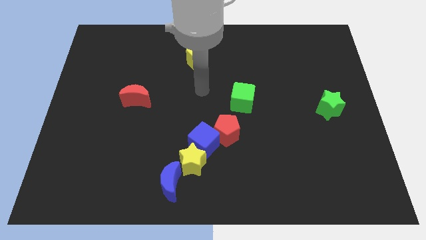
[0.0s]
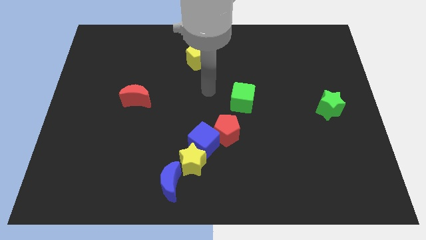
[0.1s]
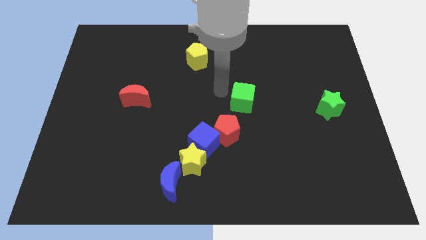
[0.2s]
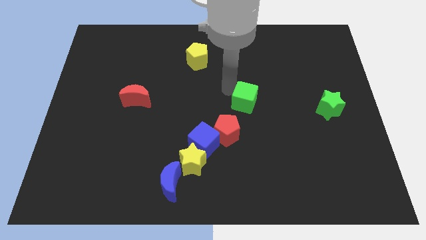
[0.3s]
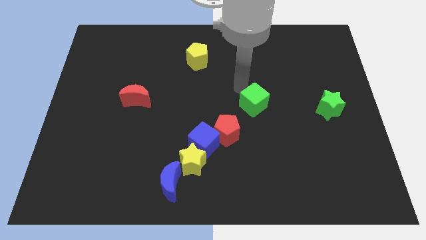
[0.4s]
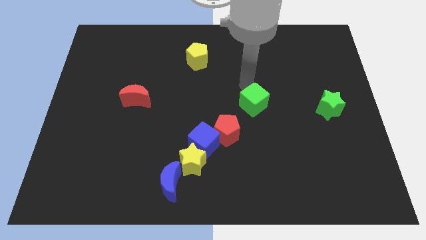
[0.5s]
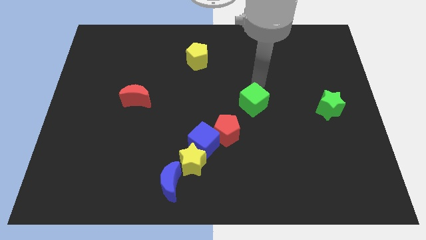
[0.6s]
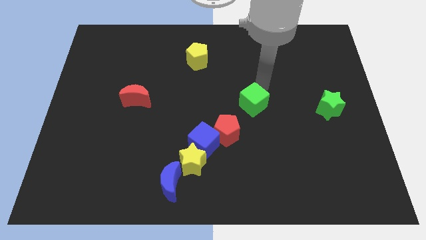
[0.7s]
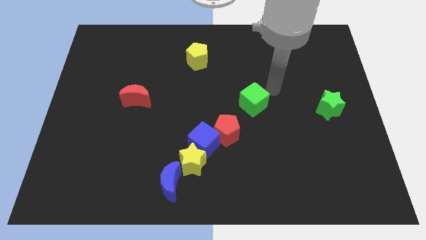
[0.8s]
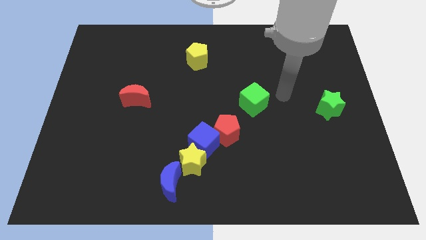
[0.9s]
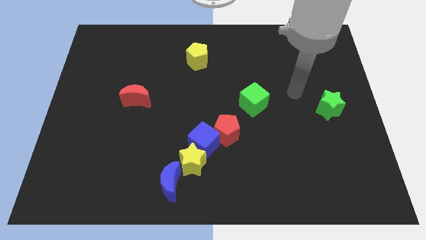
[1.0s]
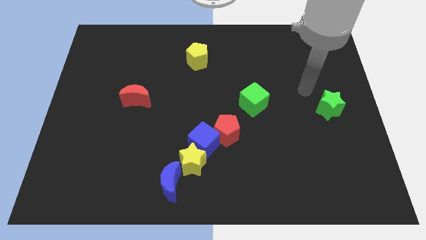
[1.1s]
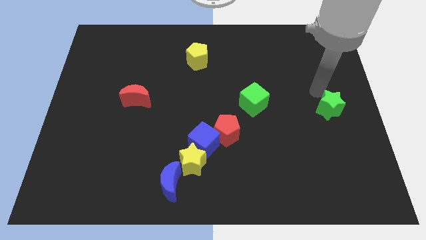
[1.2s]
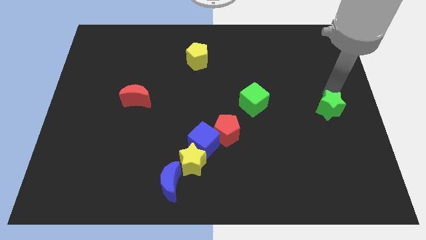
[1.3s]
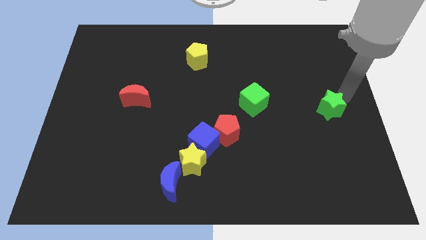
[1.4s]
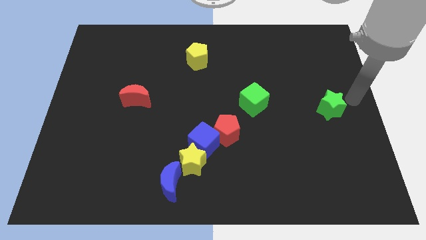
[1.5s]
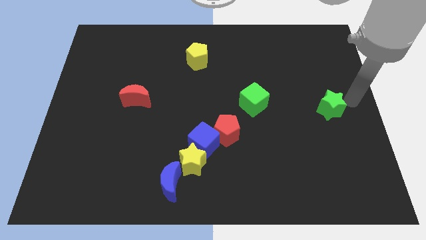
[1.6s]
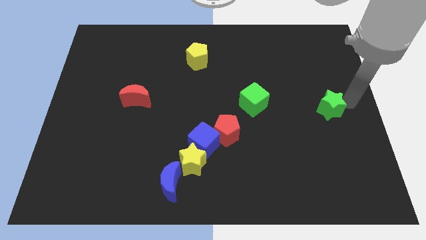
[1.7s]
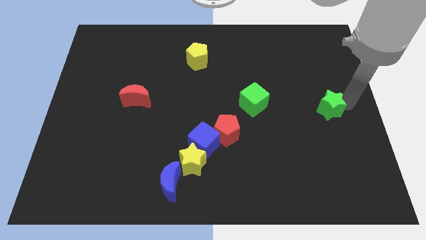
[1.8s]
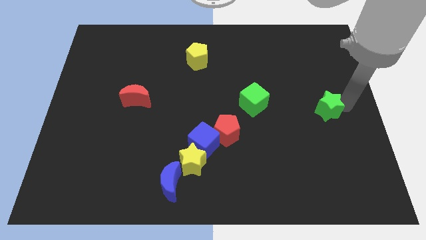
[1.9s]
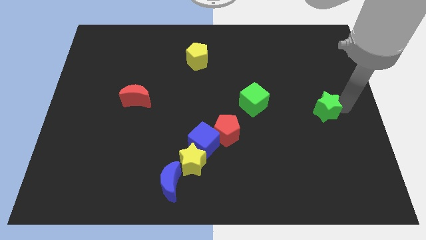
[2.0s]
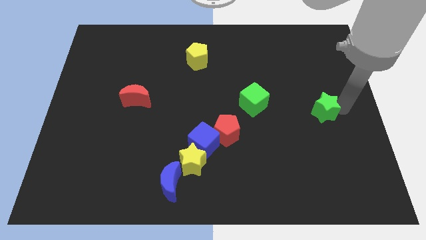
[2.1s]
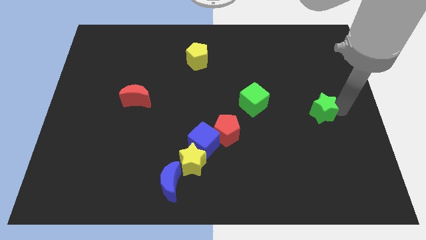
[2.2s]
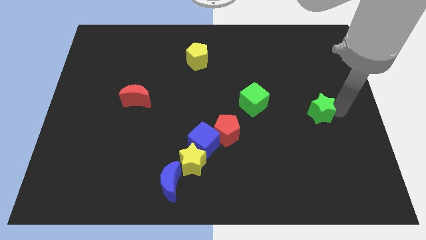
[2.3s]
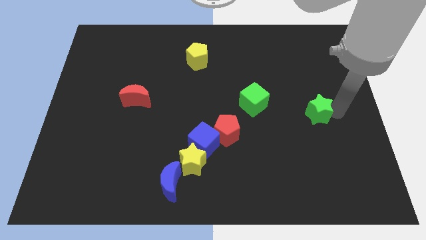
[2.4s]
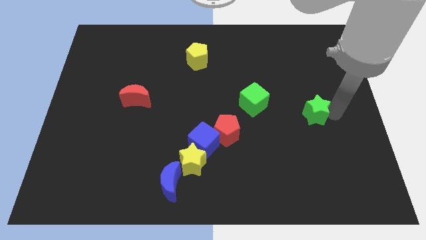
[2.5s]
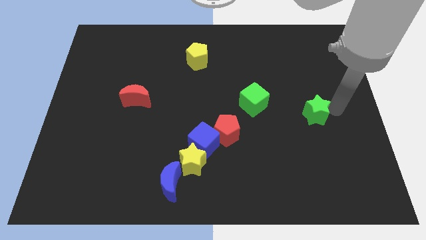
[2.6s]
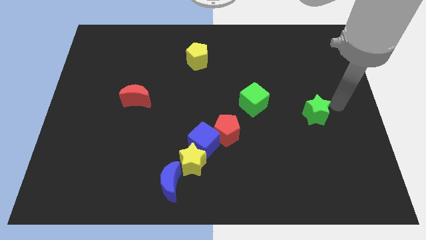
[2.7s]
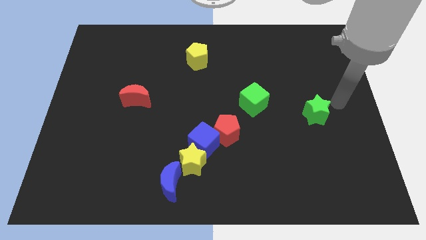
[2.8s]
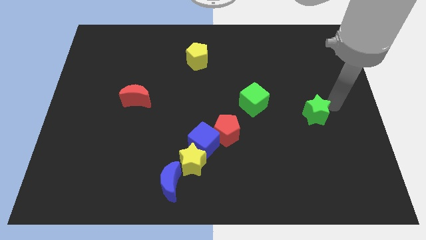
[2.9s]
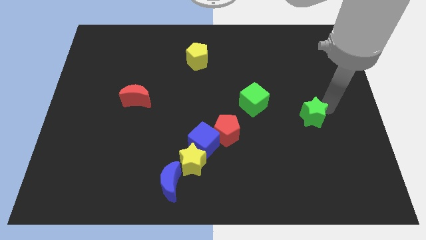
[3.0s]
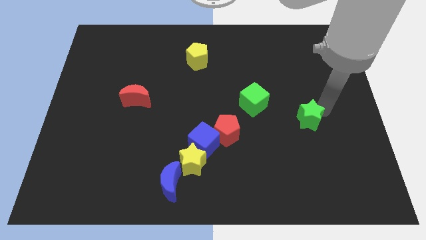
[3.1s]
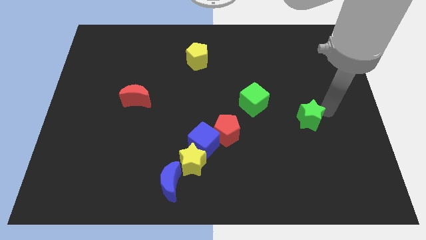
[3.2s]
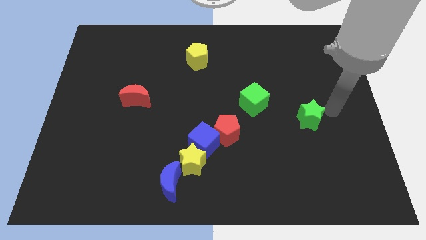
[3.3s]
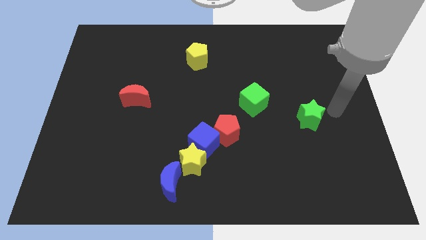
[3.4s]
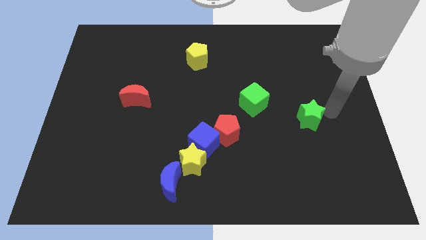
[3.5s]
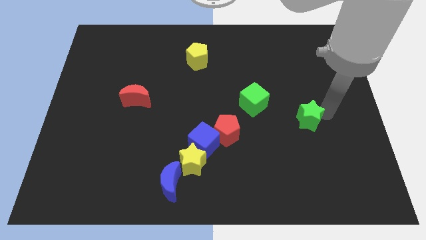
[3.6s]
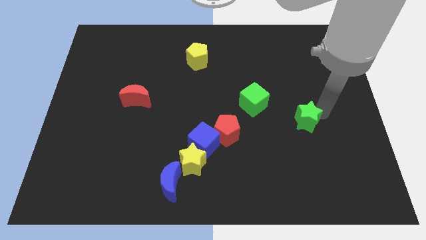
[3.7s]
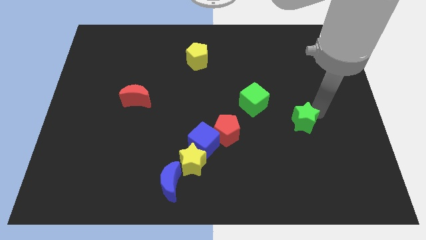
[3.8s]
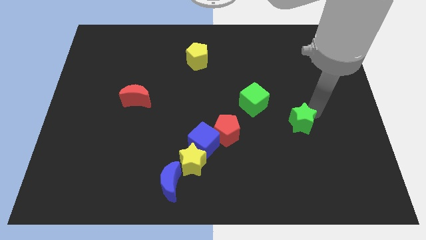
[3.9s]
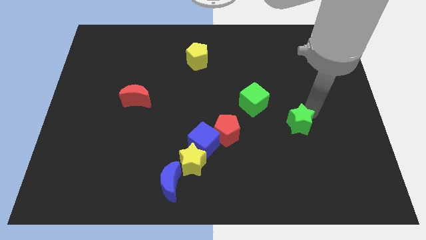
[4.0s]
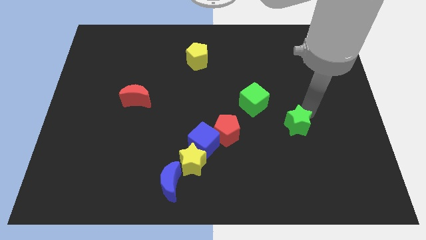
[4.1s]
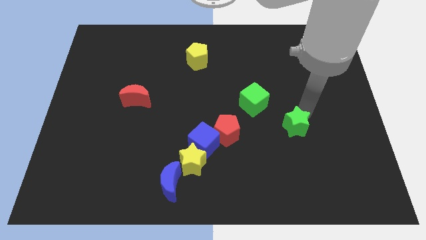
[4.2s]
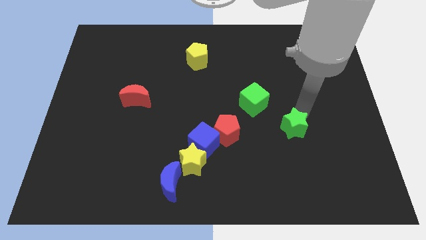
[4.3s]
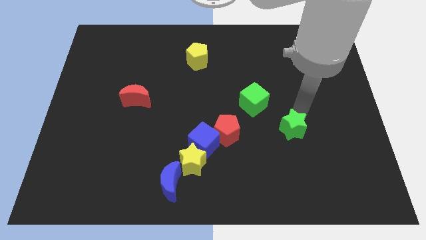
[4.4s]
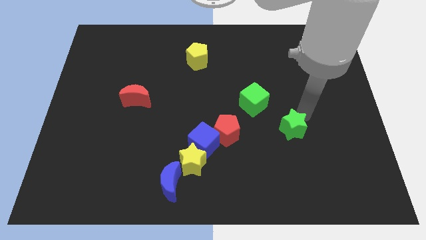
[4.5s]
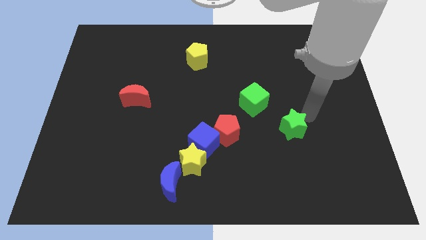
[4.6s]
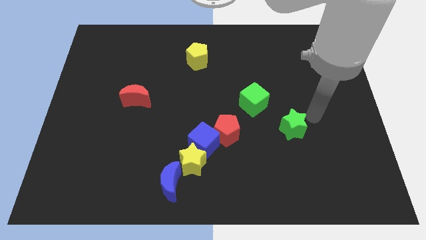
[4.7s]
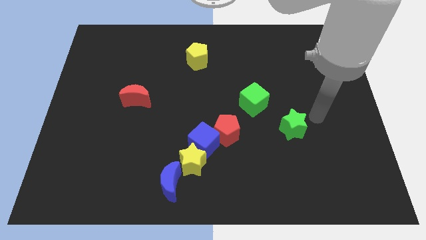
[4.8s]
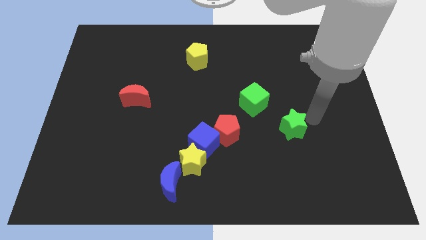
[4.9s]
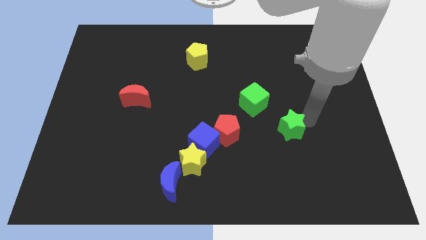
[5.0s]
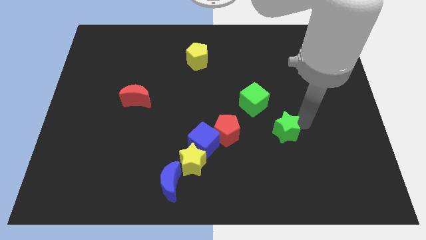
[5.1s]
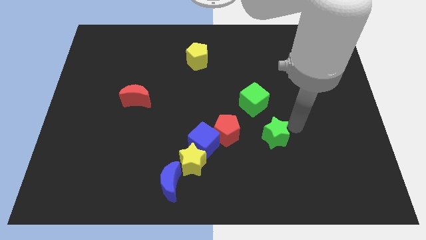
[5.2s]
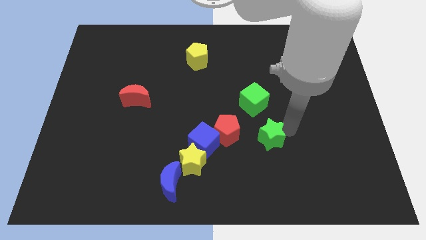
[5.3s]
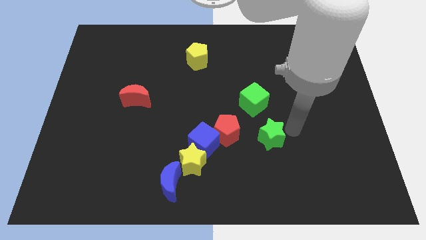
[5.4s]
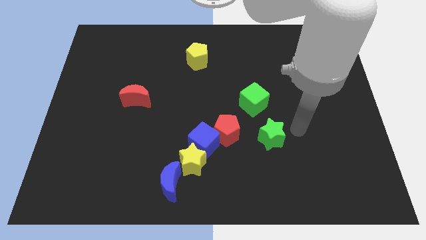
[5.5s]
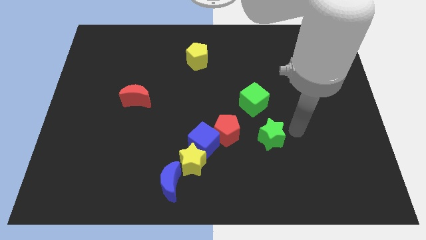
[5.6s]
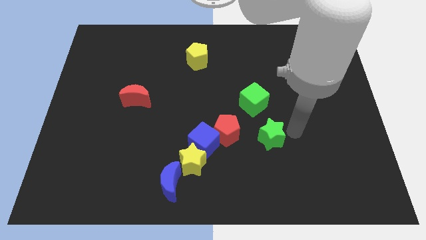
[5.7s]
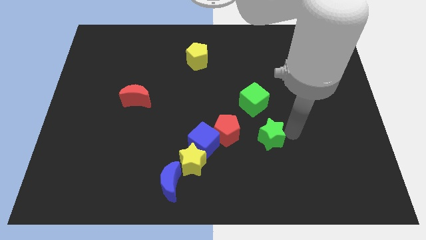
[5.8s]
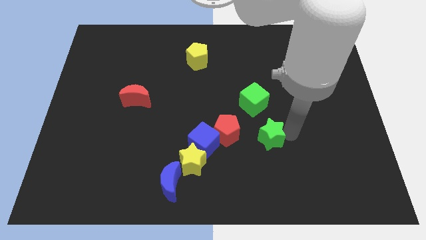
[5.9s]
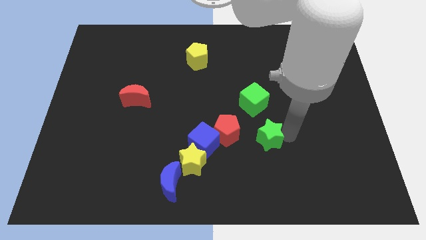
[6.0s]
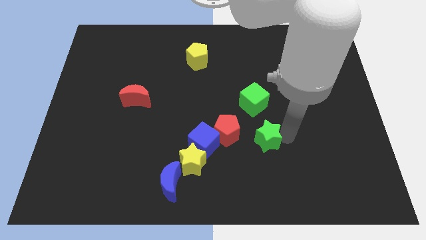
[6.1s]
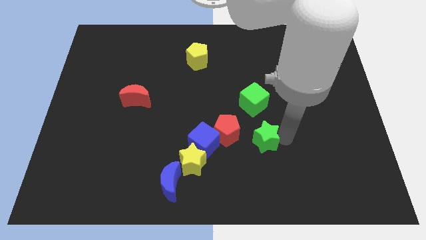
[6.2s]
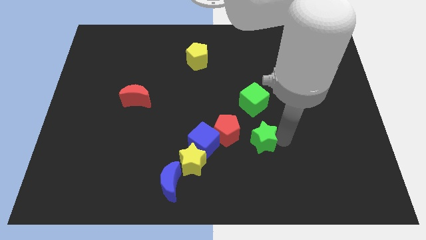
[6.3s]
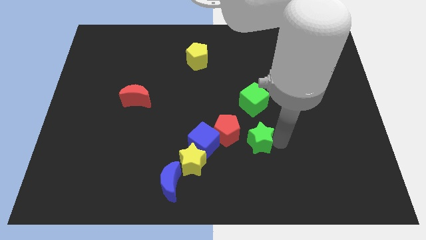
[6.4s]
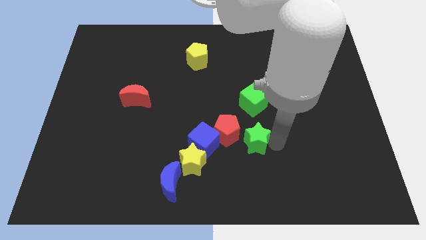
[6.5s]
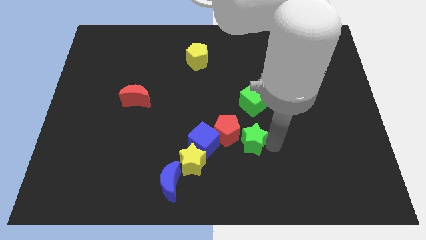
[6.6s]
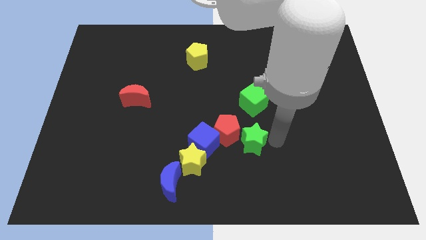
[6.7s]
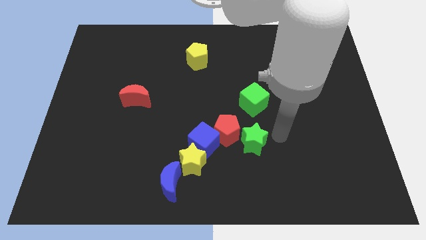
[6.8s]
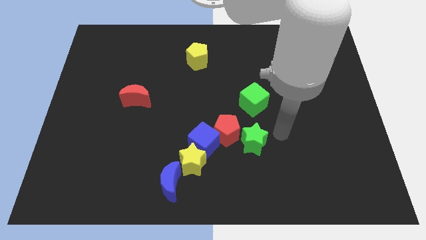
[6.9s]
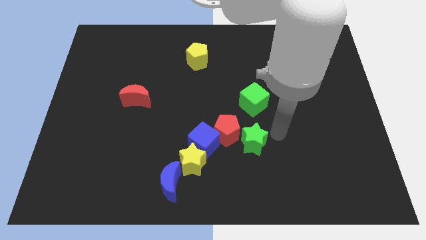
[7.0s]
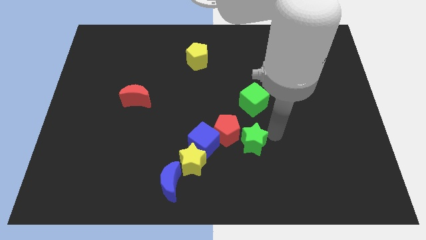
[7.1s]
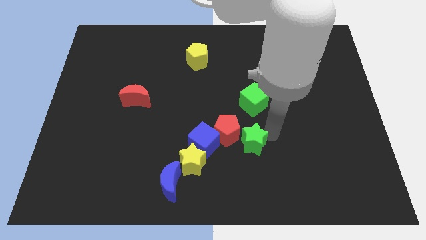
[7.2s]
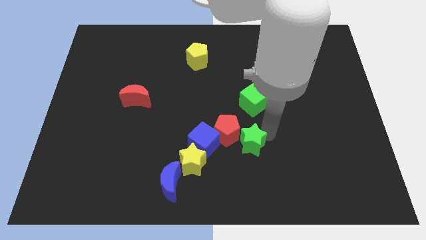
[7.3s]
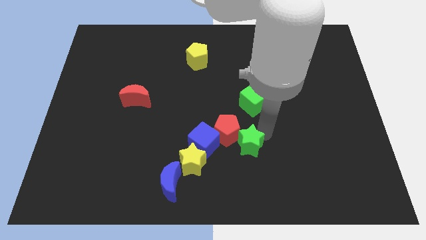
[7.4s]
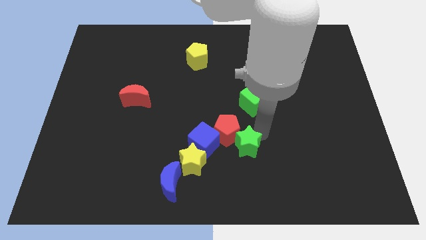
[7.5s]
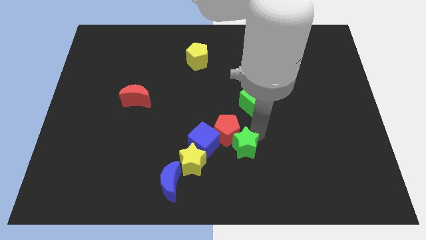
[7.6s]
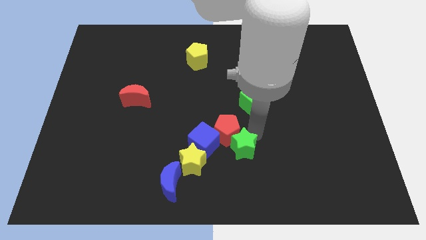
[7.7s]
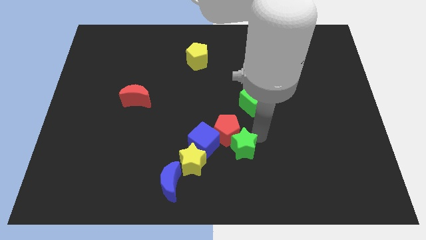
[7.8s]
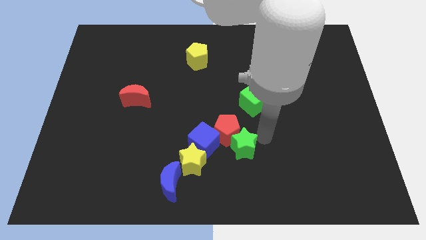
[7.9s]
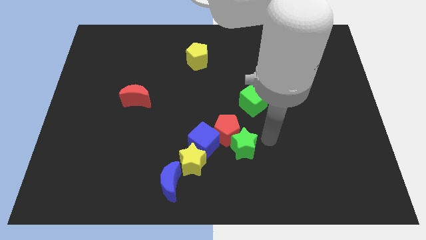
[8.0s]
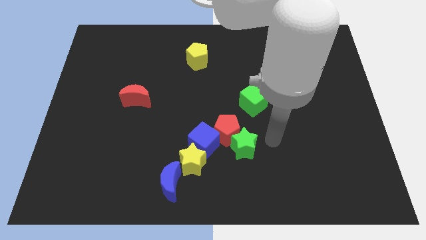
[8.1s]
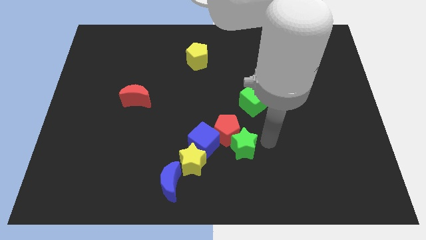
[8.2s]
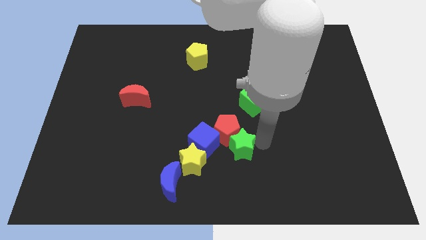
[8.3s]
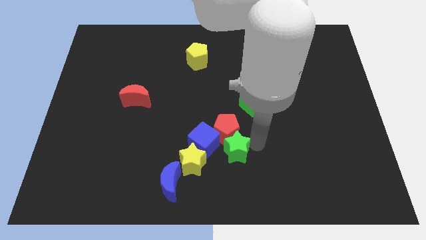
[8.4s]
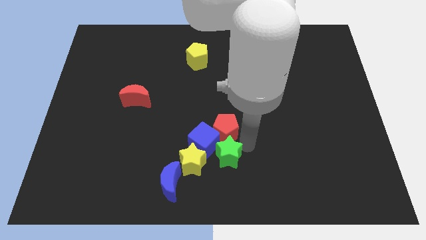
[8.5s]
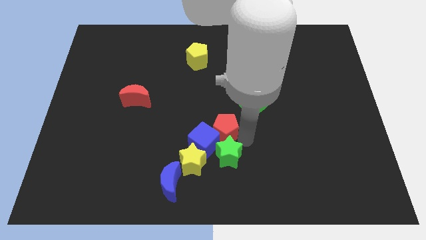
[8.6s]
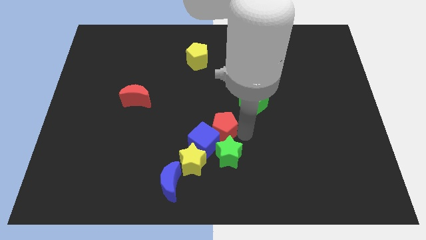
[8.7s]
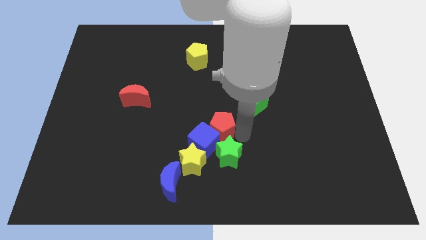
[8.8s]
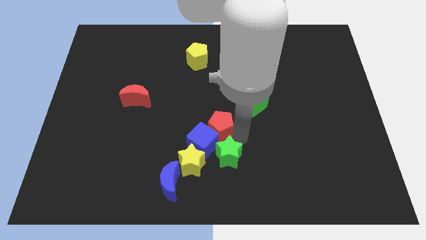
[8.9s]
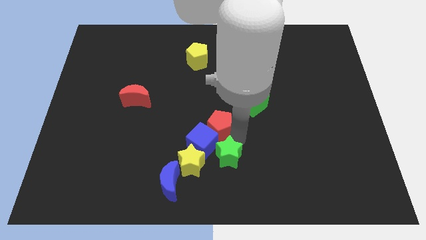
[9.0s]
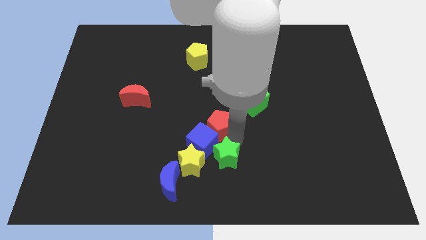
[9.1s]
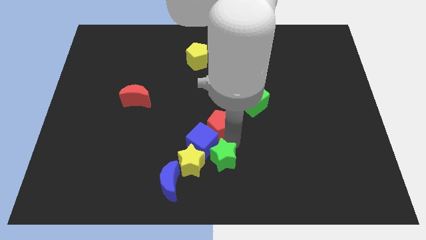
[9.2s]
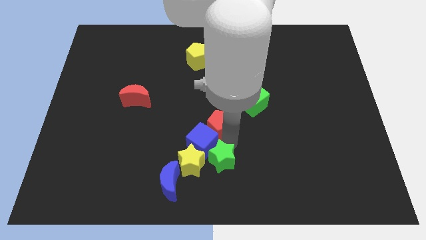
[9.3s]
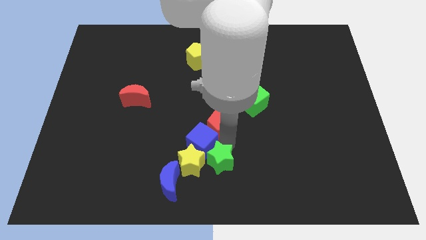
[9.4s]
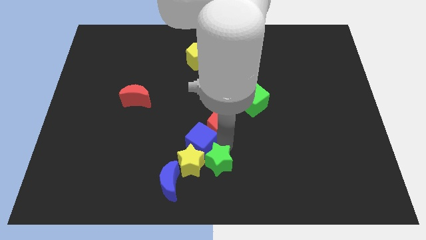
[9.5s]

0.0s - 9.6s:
move the green star close to the yellow star
